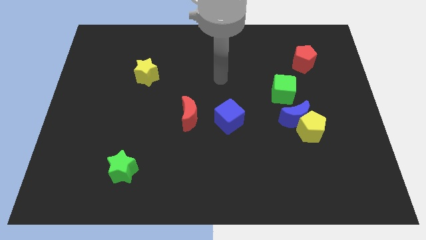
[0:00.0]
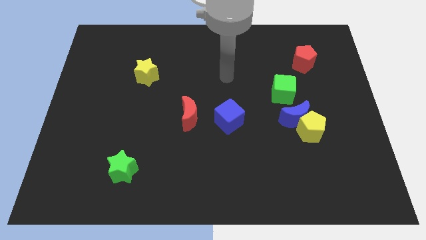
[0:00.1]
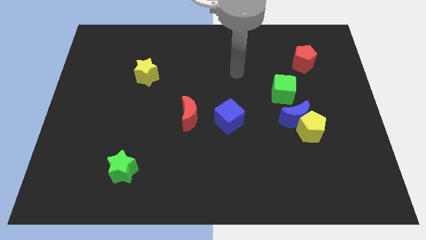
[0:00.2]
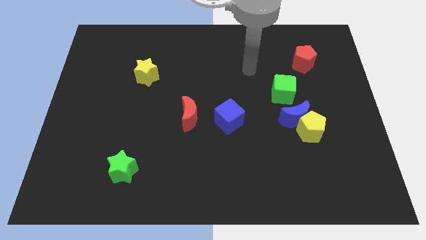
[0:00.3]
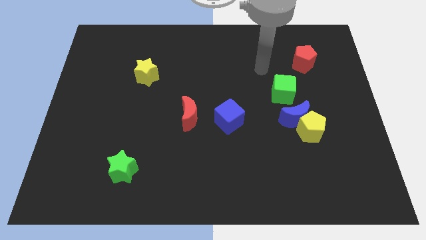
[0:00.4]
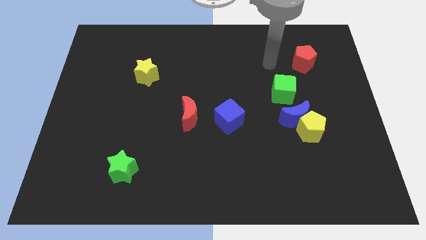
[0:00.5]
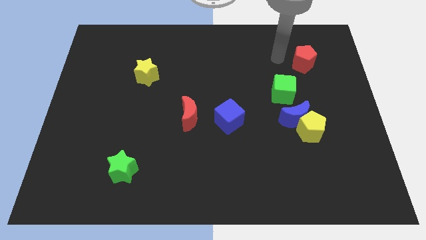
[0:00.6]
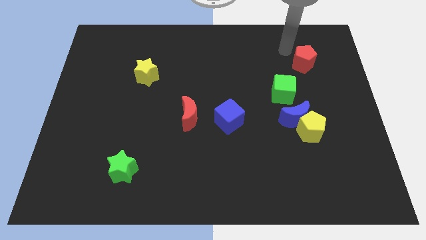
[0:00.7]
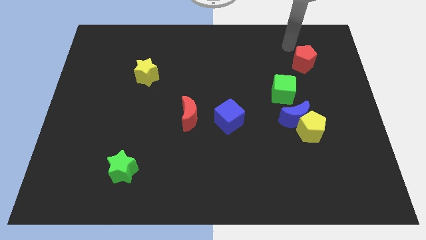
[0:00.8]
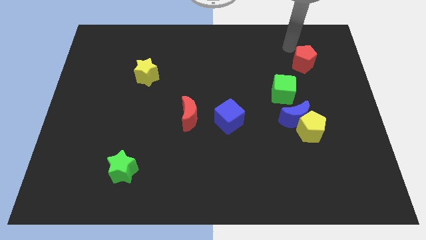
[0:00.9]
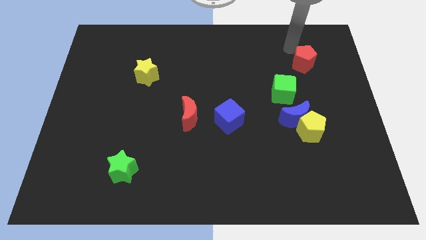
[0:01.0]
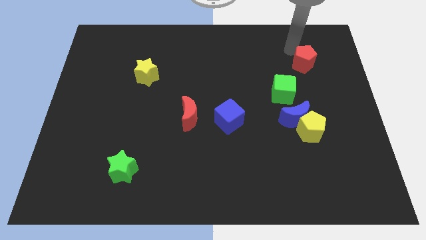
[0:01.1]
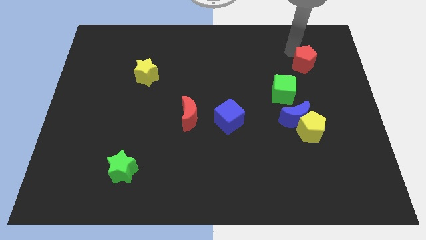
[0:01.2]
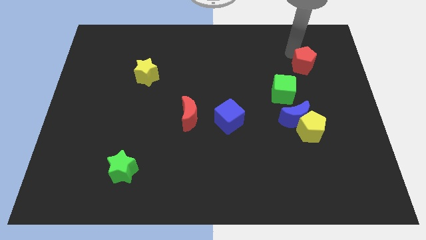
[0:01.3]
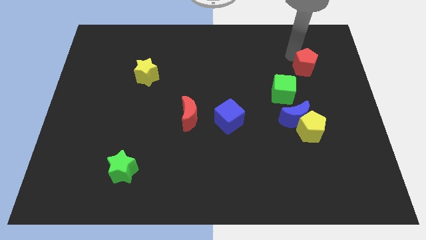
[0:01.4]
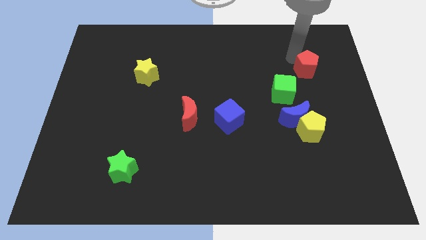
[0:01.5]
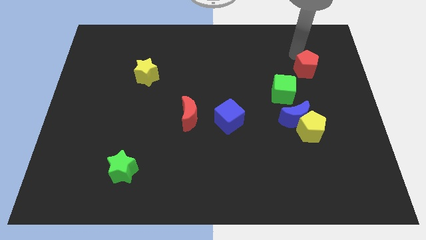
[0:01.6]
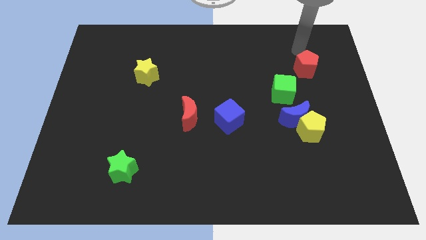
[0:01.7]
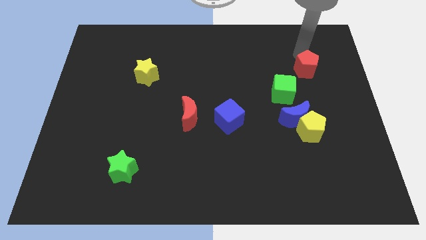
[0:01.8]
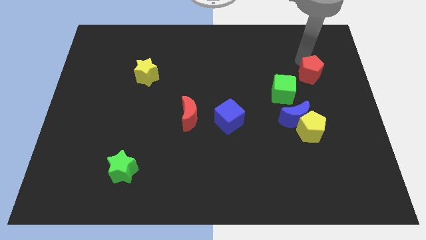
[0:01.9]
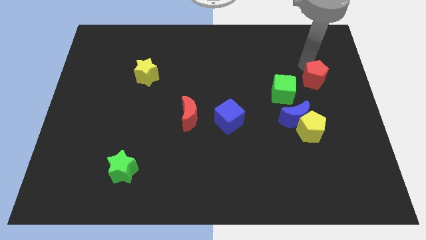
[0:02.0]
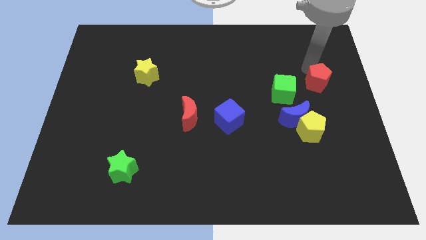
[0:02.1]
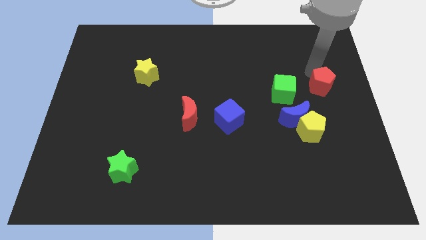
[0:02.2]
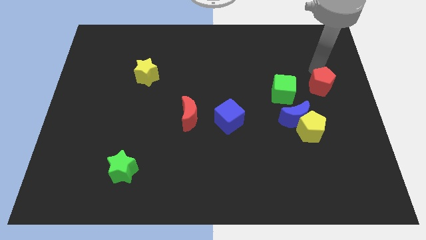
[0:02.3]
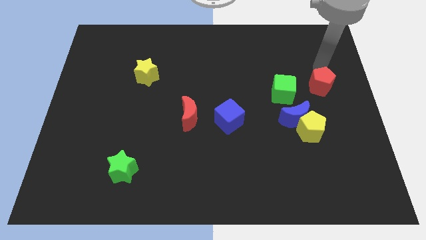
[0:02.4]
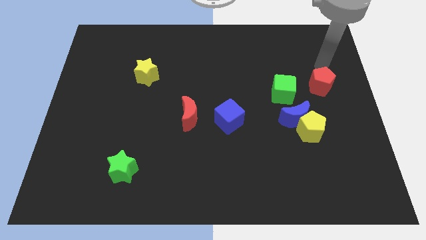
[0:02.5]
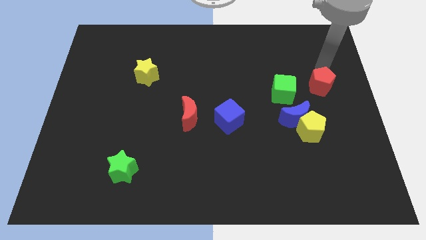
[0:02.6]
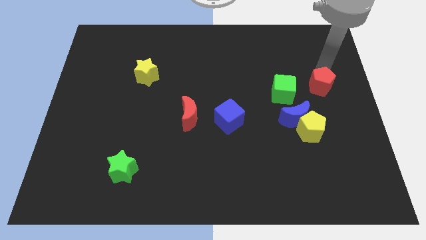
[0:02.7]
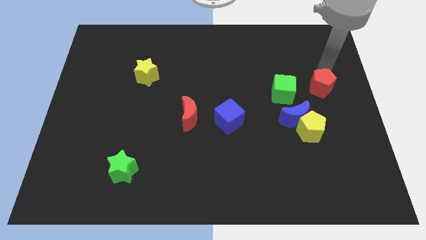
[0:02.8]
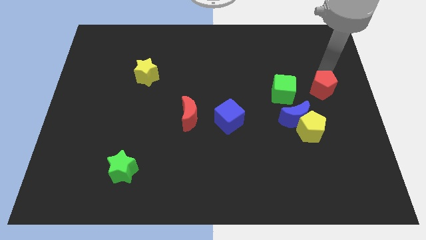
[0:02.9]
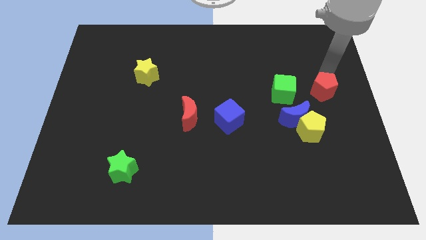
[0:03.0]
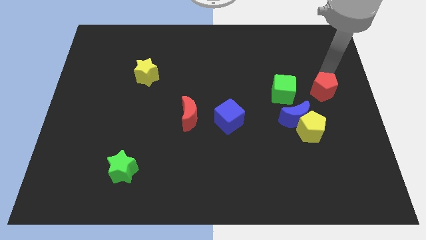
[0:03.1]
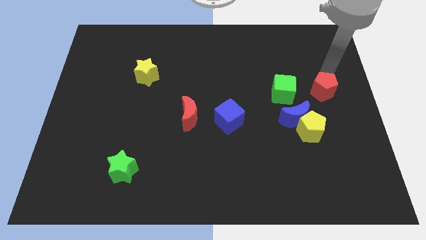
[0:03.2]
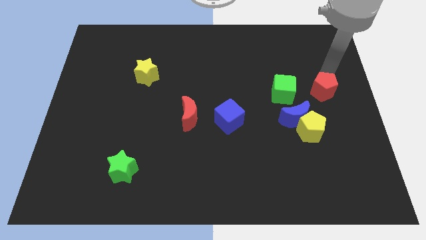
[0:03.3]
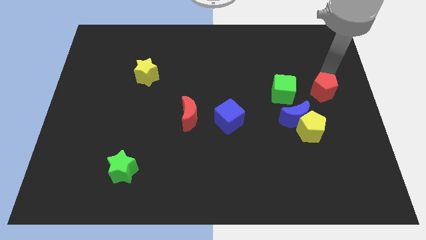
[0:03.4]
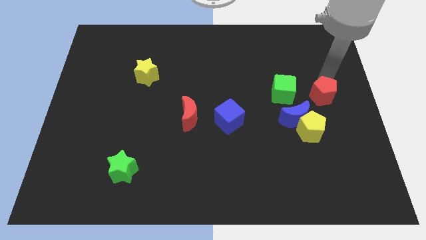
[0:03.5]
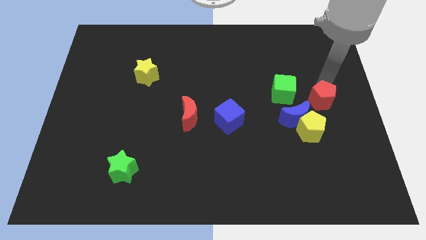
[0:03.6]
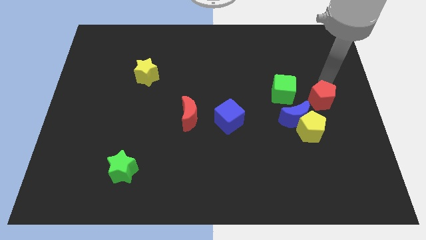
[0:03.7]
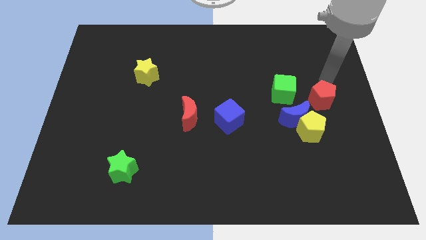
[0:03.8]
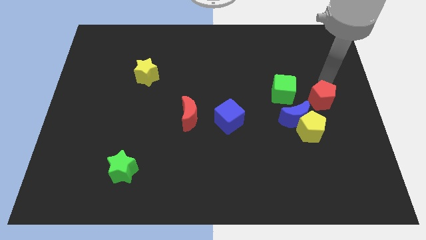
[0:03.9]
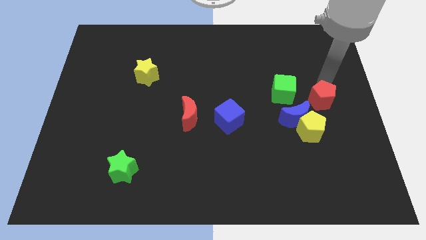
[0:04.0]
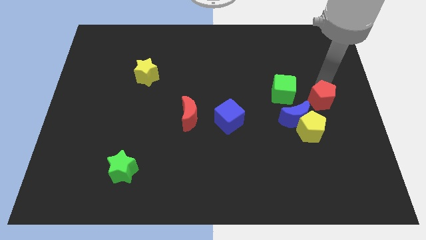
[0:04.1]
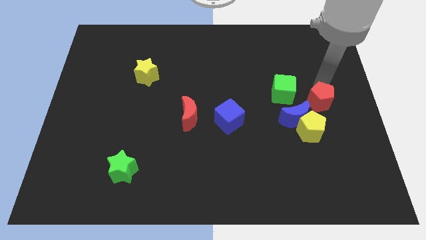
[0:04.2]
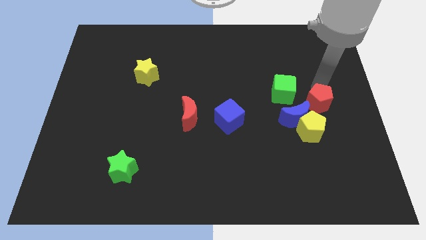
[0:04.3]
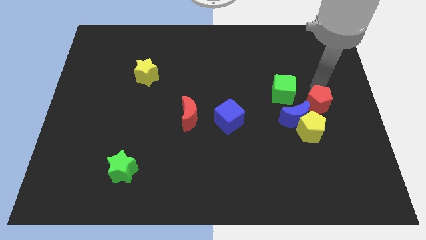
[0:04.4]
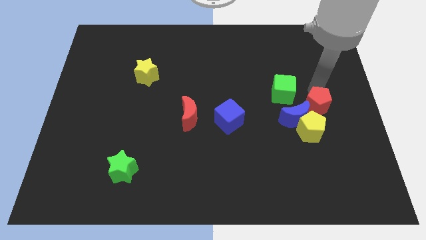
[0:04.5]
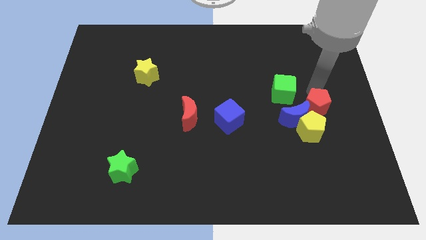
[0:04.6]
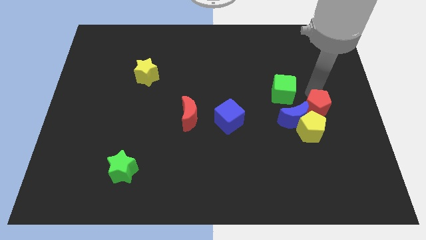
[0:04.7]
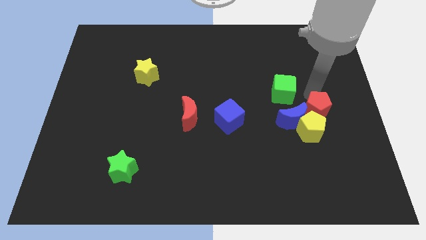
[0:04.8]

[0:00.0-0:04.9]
put the red pentagon next to the yellow pentagon

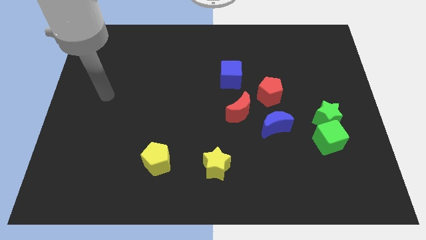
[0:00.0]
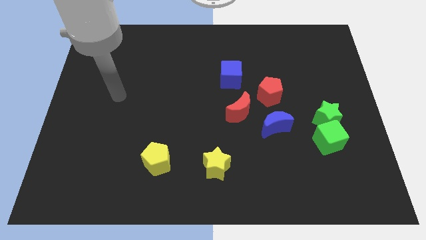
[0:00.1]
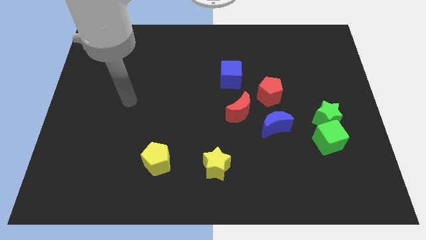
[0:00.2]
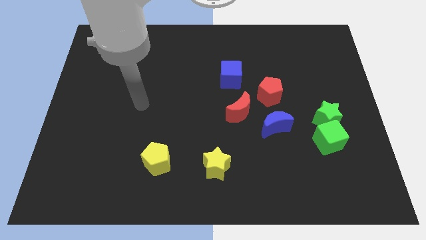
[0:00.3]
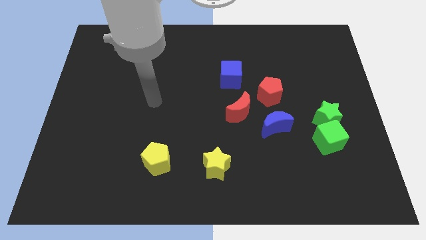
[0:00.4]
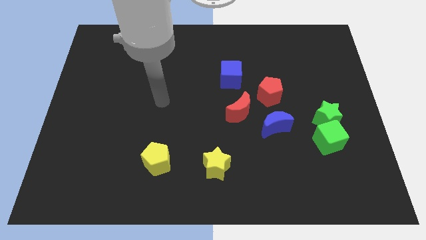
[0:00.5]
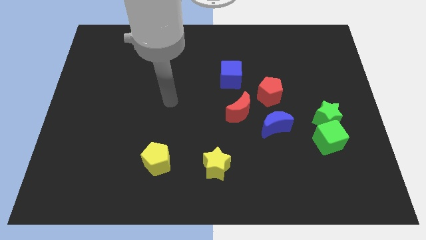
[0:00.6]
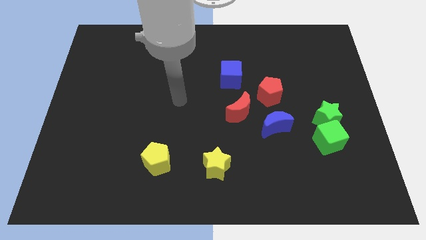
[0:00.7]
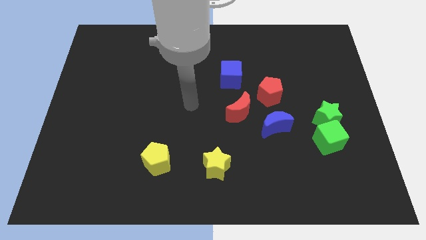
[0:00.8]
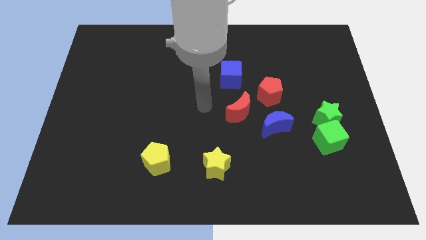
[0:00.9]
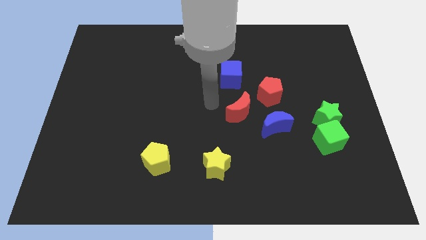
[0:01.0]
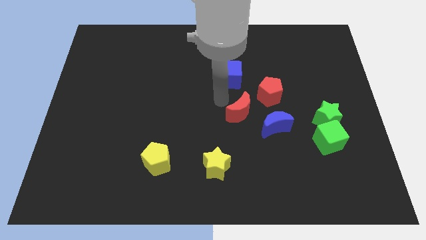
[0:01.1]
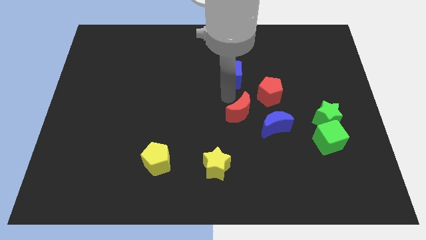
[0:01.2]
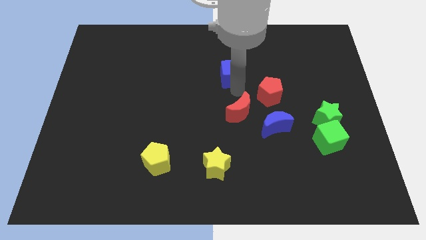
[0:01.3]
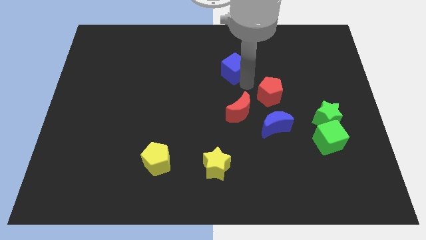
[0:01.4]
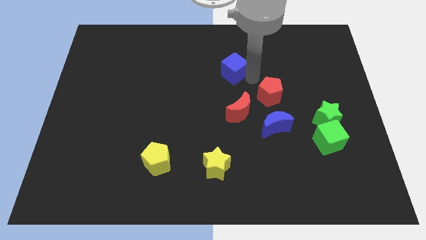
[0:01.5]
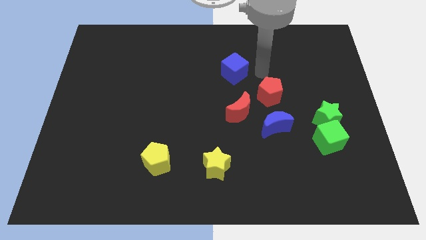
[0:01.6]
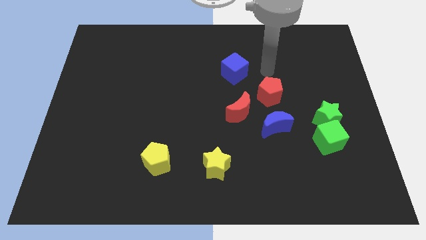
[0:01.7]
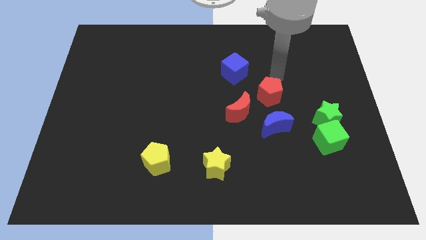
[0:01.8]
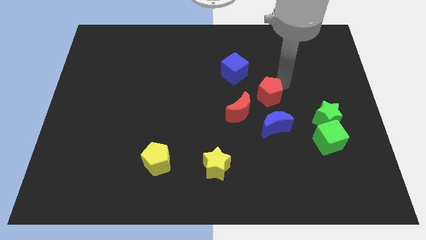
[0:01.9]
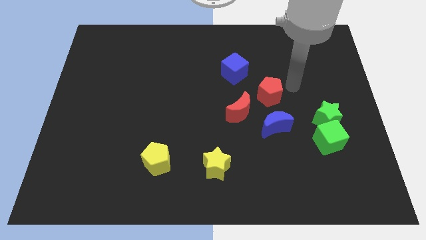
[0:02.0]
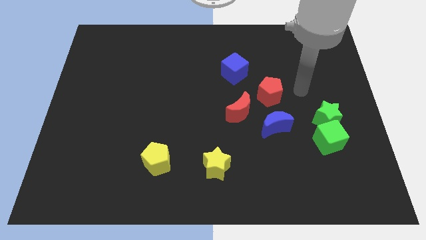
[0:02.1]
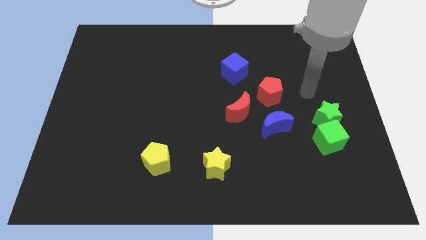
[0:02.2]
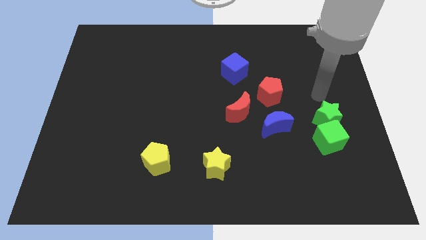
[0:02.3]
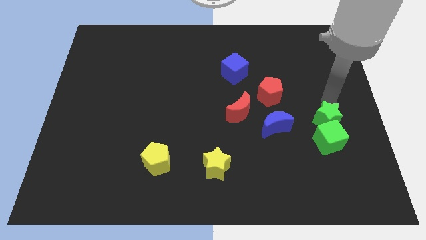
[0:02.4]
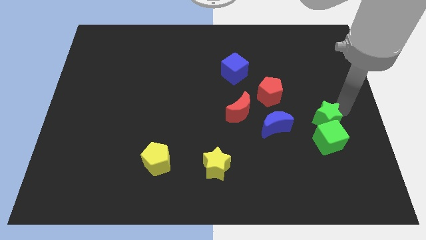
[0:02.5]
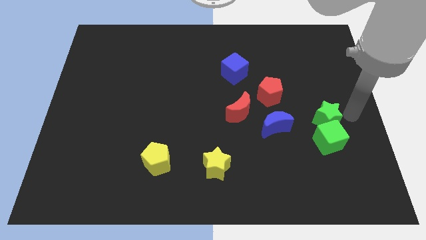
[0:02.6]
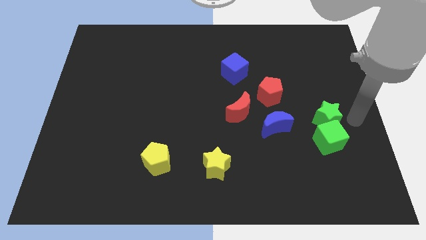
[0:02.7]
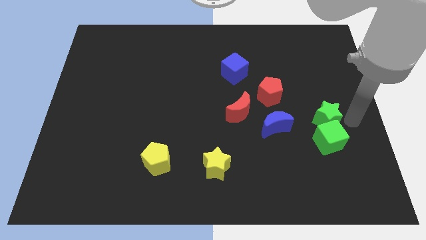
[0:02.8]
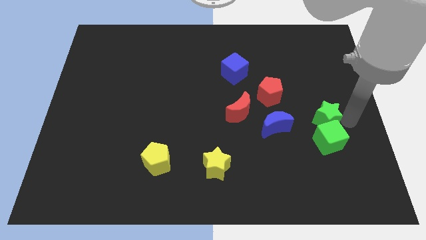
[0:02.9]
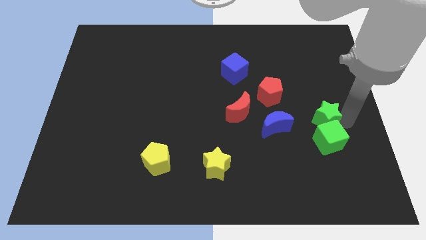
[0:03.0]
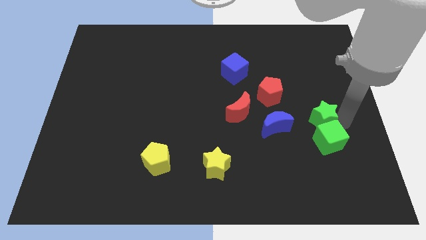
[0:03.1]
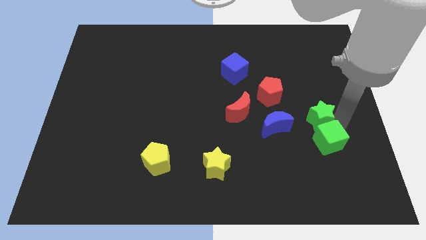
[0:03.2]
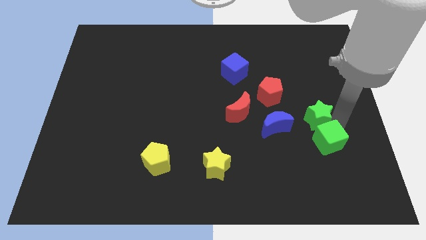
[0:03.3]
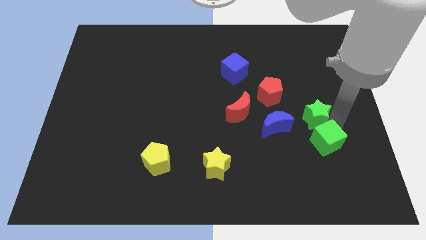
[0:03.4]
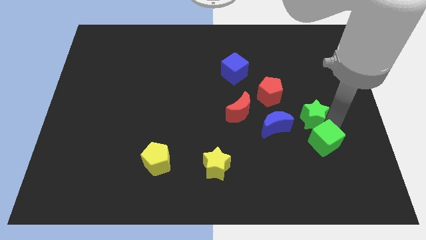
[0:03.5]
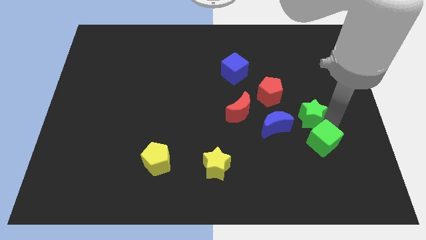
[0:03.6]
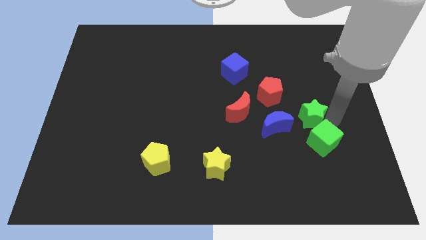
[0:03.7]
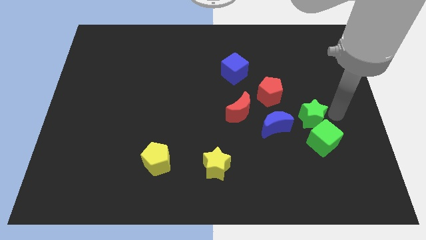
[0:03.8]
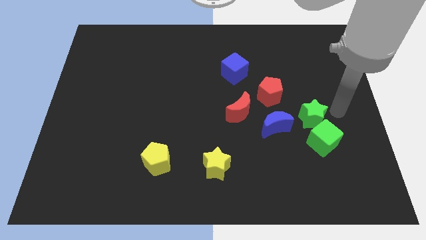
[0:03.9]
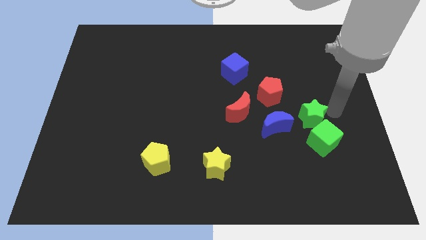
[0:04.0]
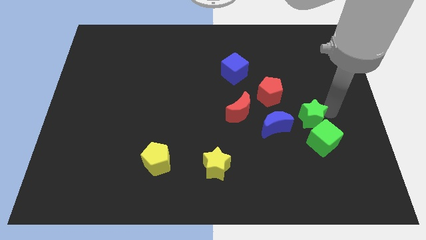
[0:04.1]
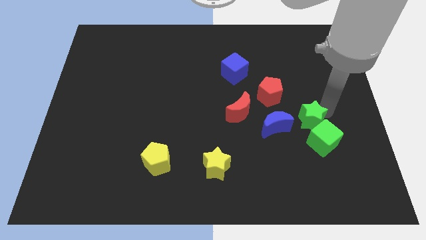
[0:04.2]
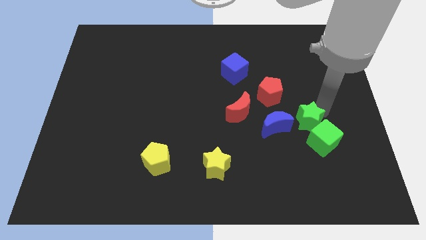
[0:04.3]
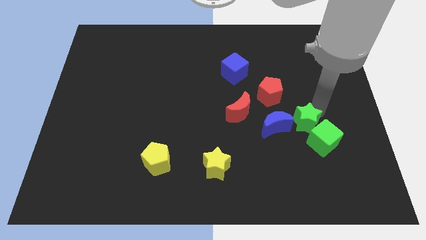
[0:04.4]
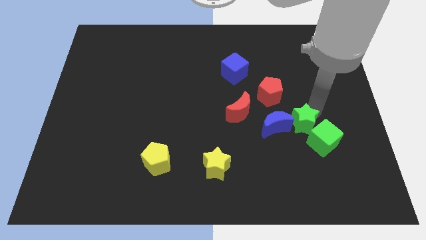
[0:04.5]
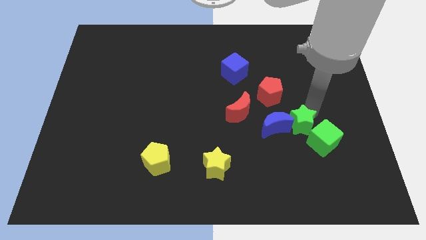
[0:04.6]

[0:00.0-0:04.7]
push the green star towards the blue moon
